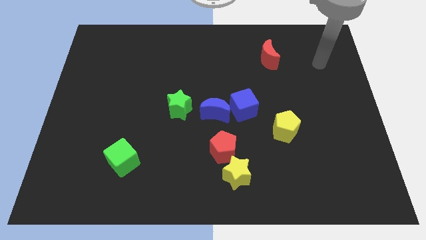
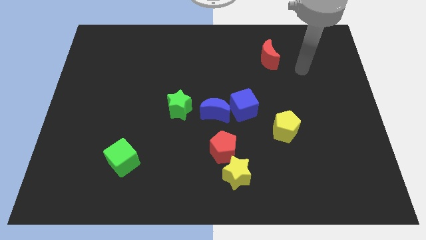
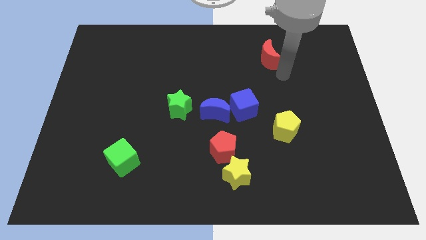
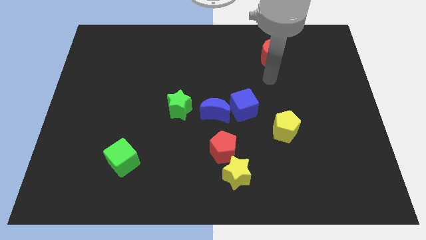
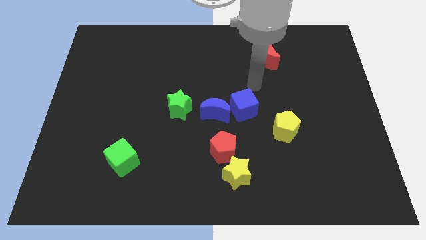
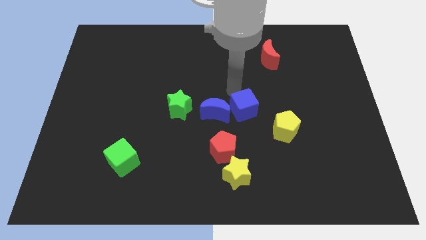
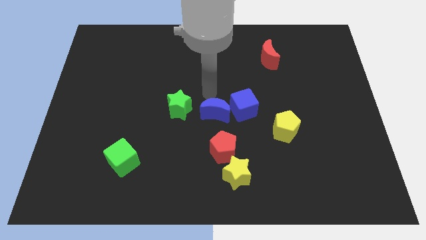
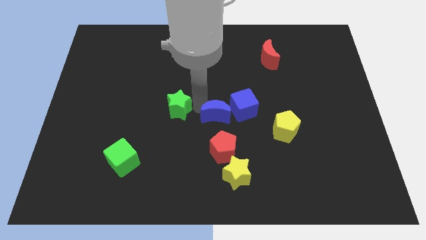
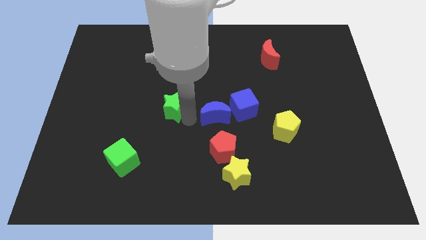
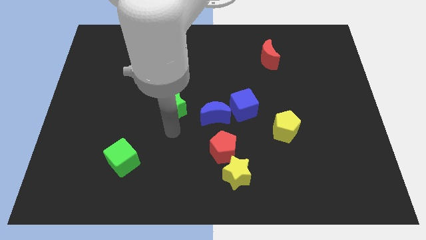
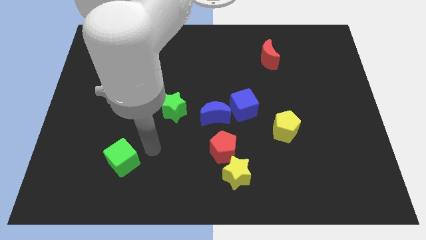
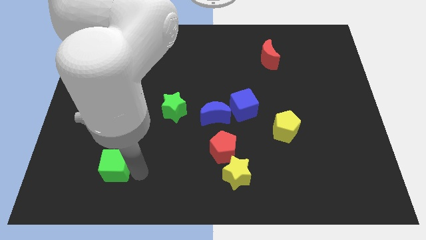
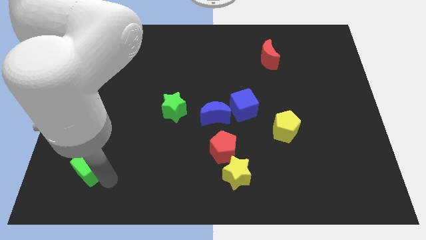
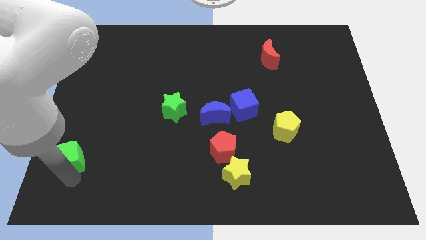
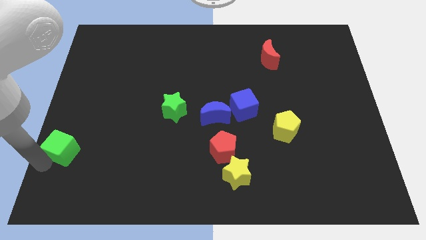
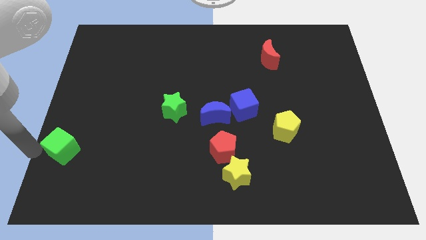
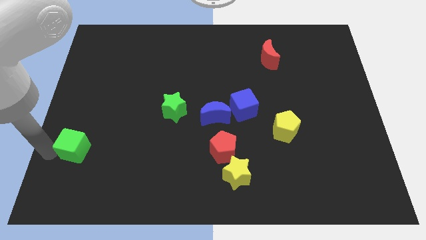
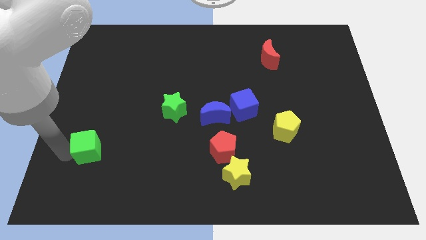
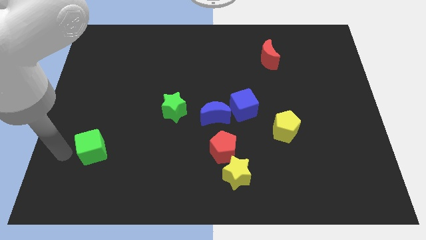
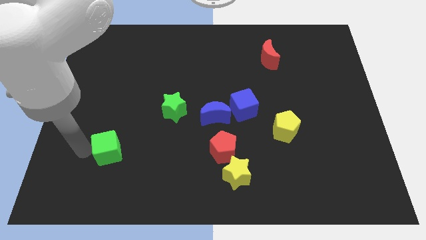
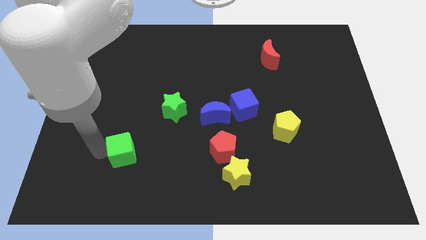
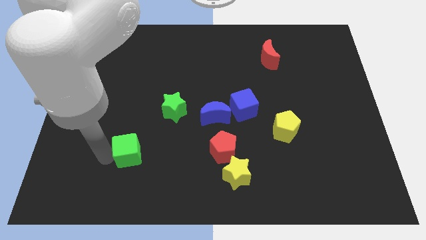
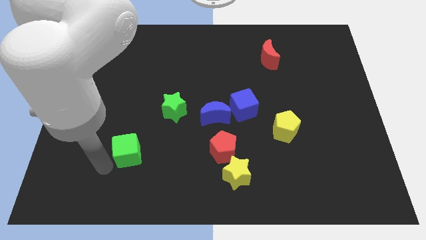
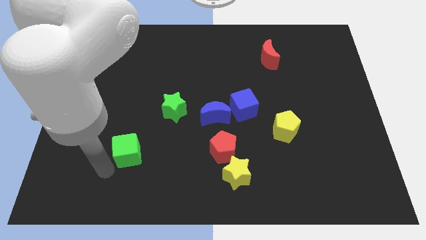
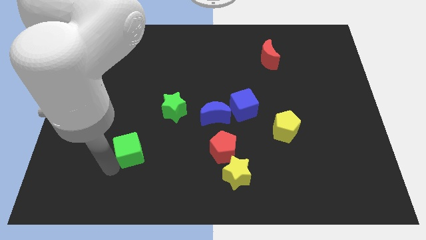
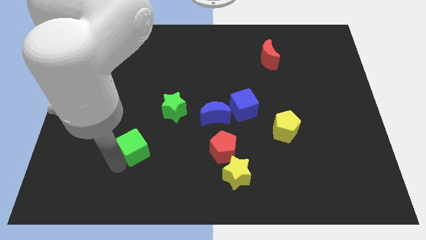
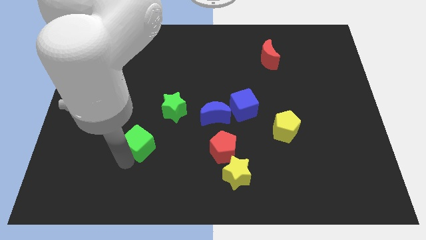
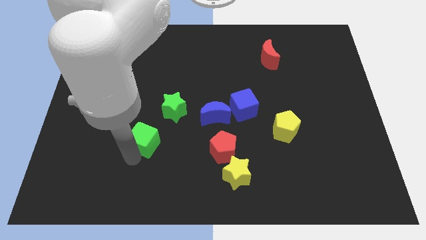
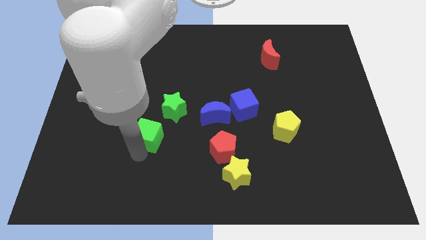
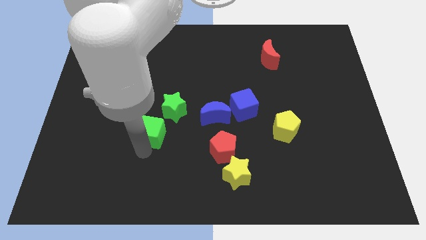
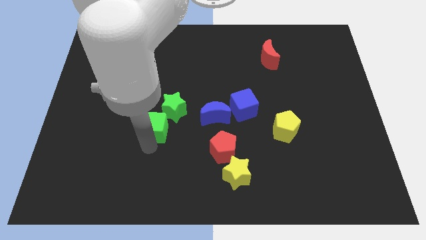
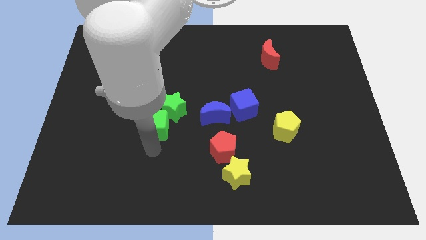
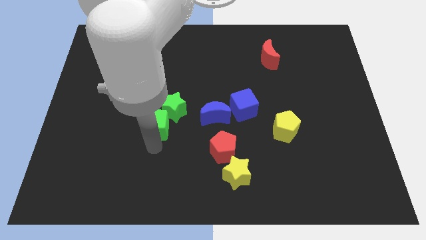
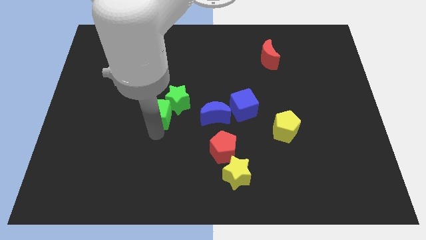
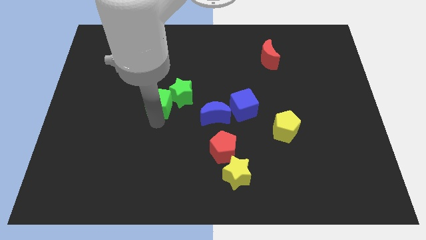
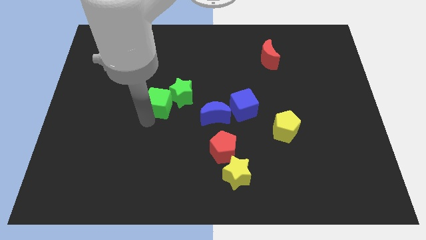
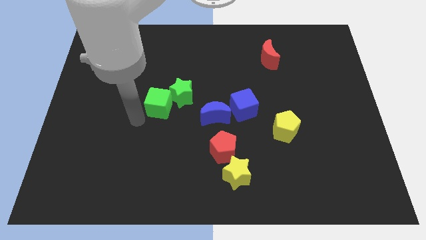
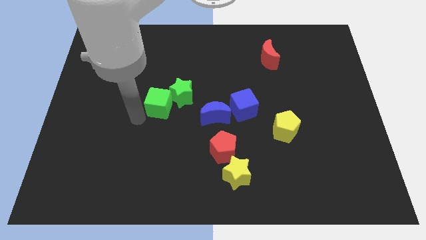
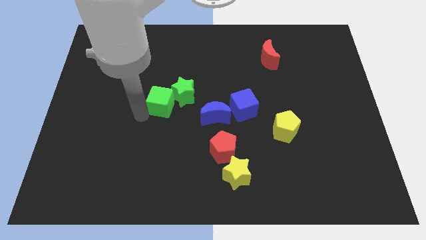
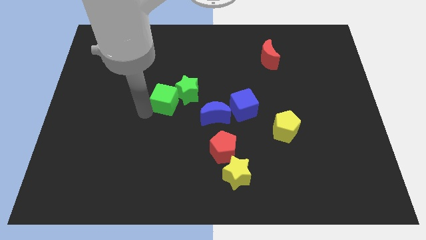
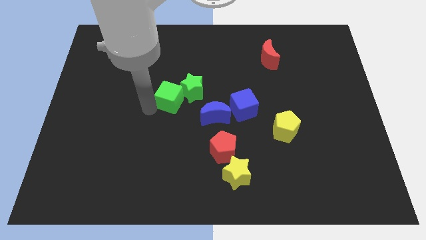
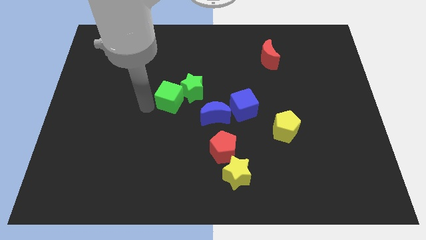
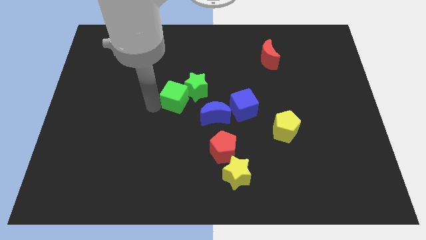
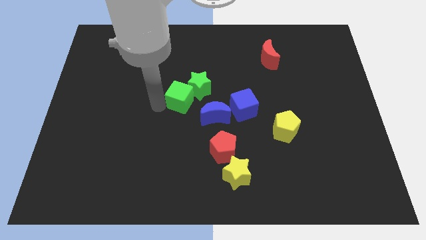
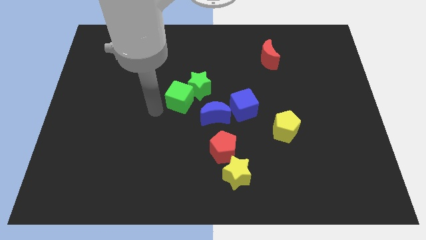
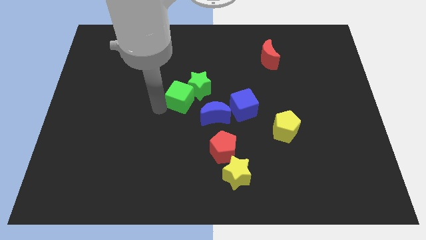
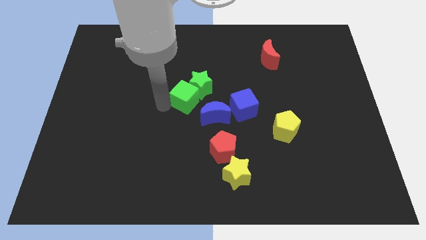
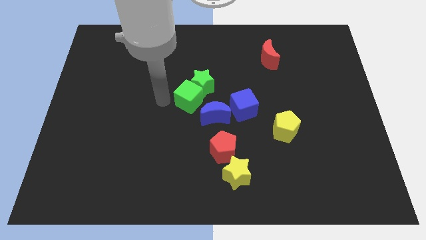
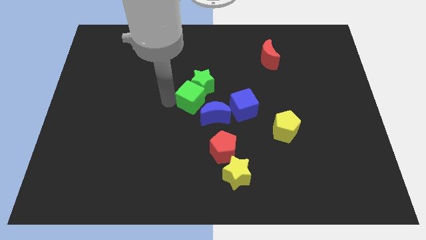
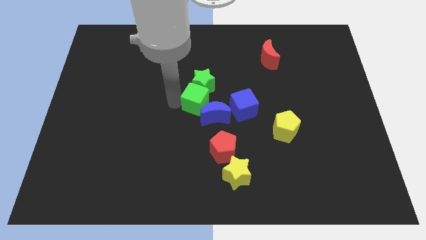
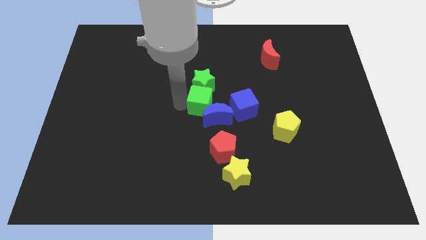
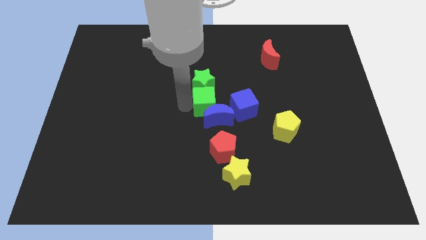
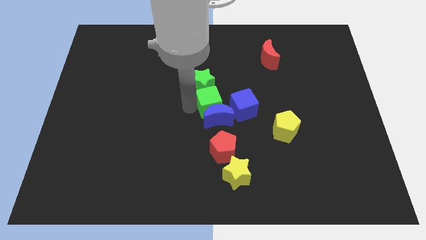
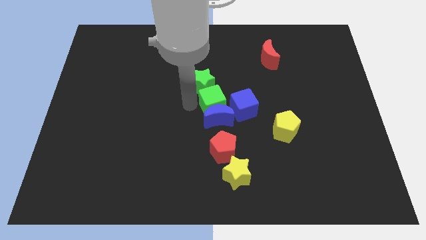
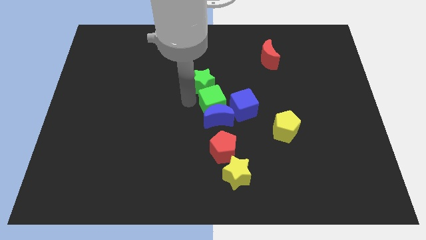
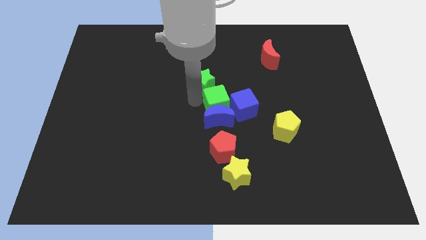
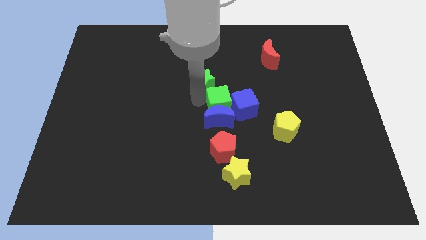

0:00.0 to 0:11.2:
push the green cube next to the blue cube

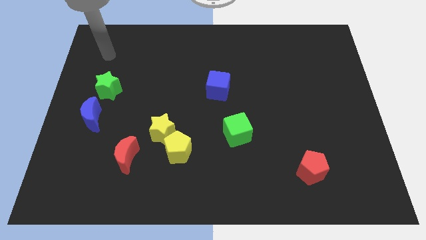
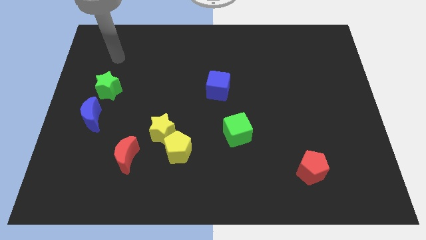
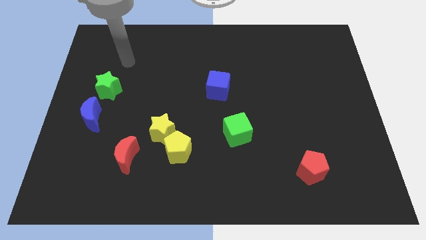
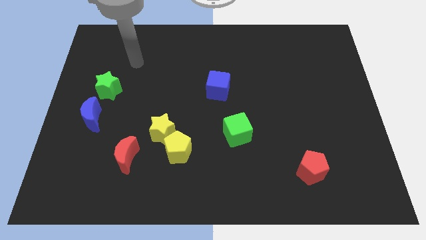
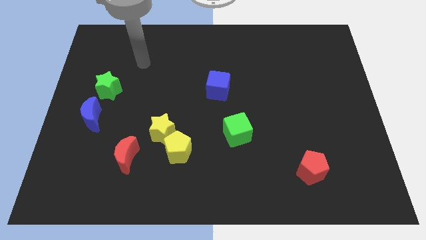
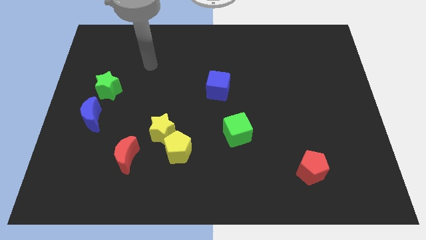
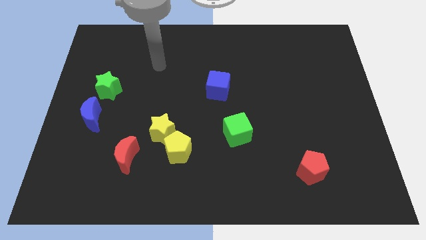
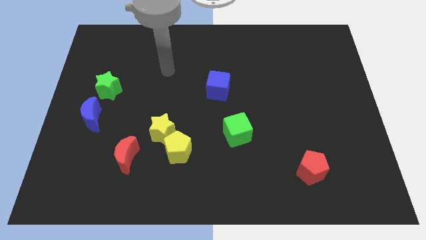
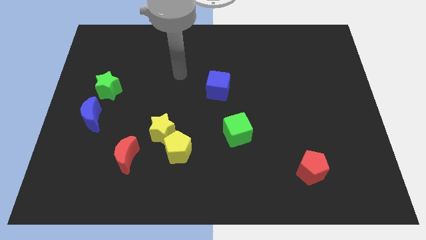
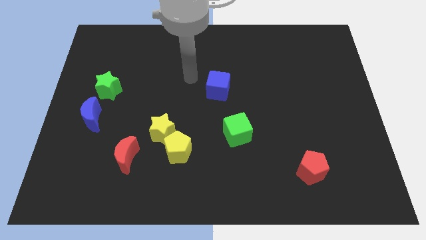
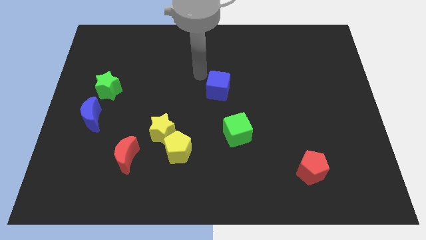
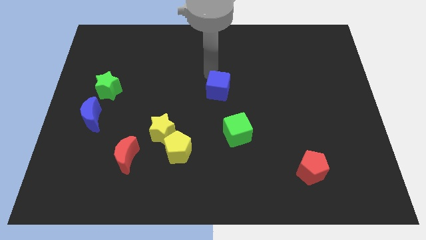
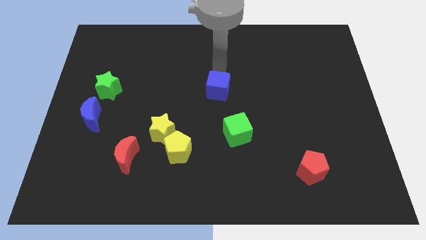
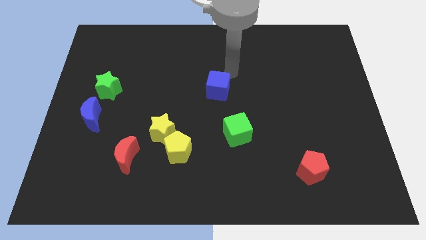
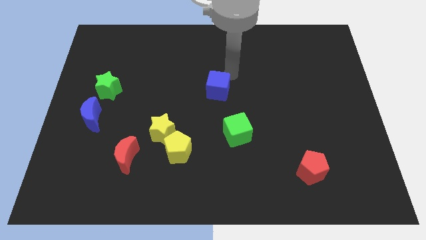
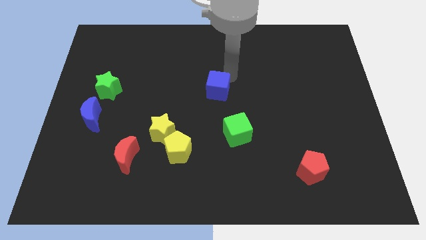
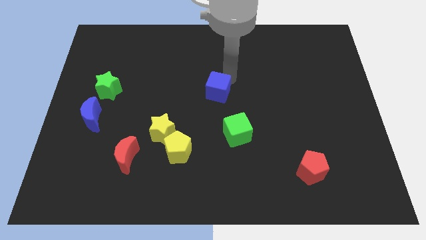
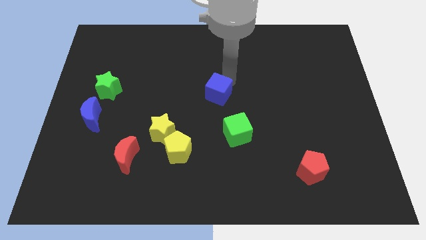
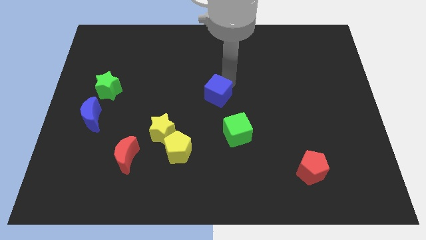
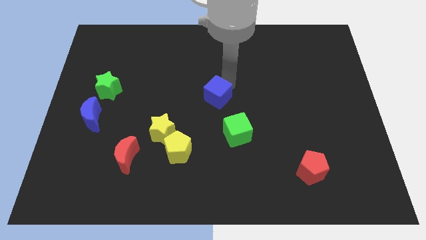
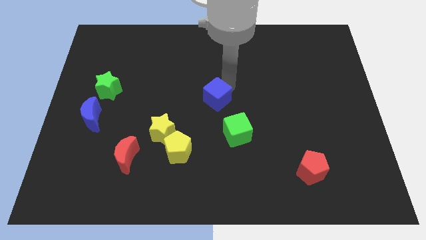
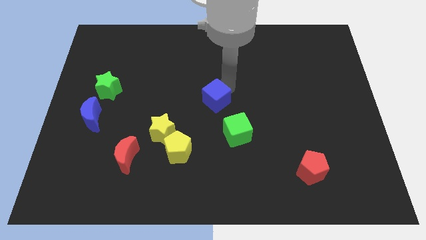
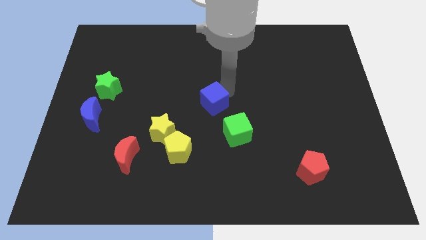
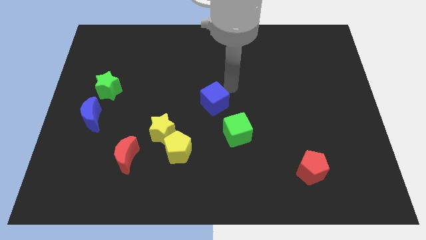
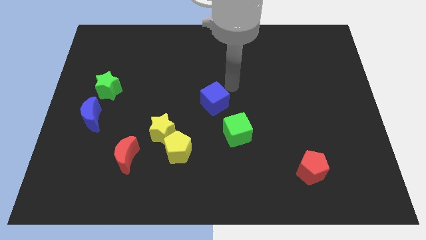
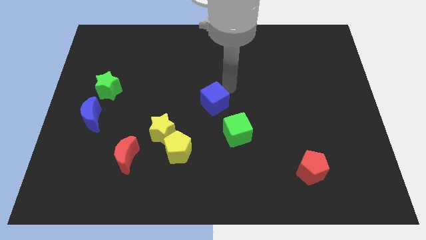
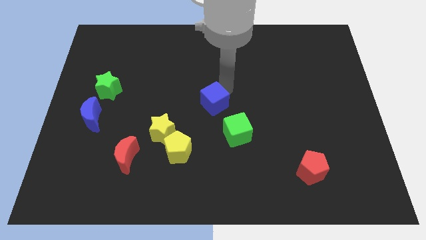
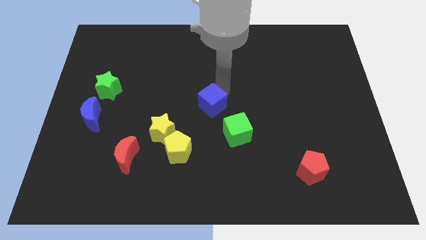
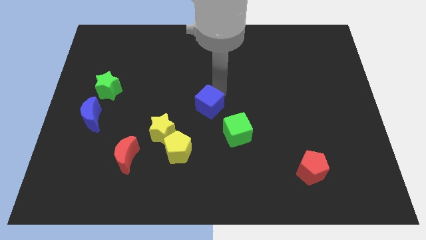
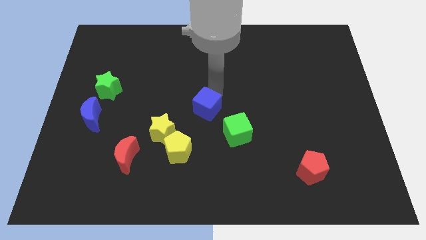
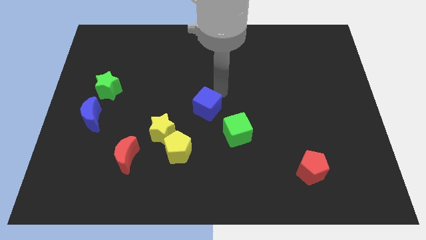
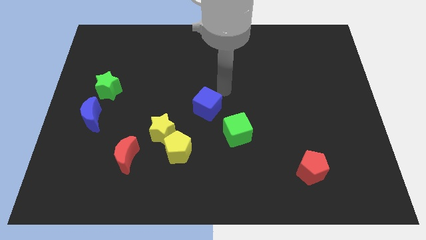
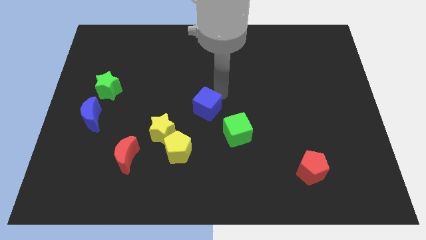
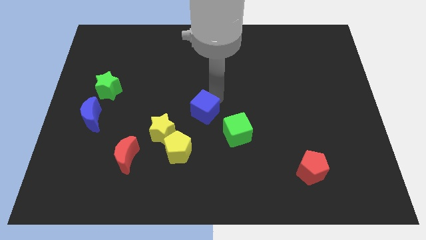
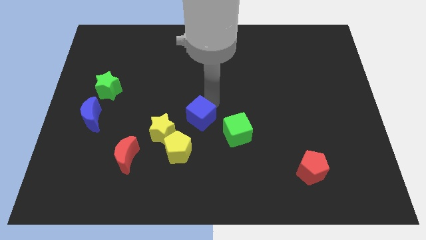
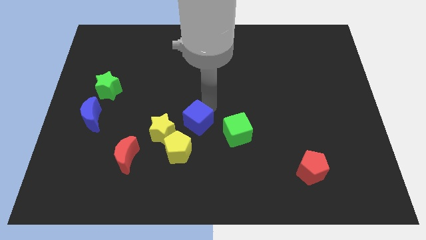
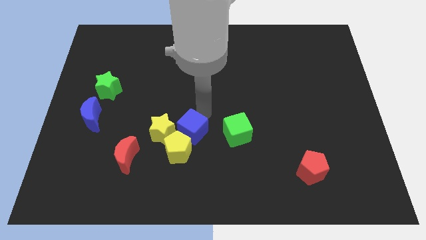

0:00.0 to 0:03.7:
push the blue cube towards the yellow pentagon
